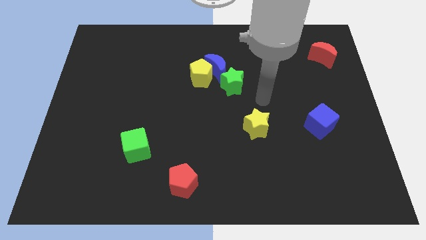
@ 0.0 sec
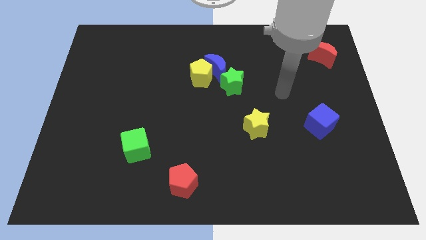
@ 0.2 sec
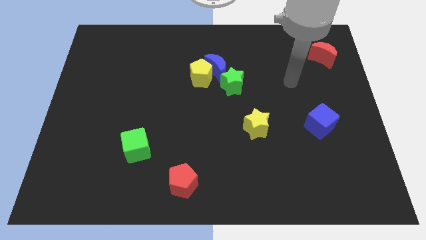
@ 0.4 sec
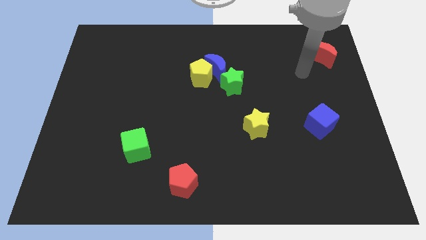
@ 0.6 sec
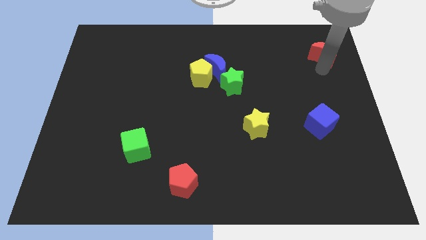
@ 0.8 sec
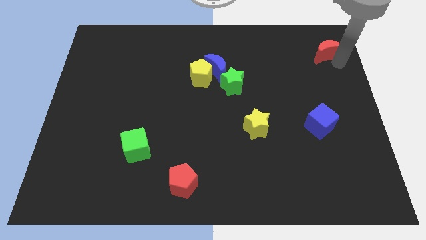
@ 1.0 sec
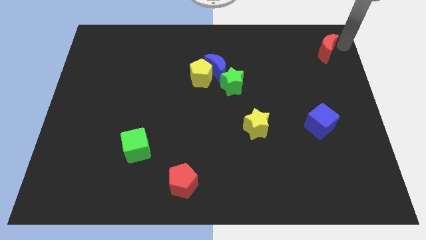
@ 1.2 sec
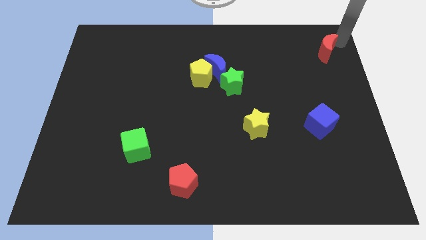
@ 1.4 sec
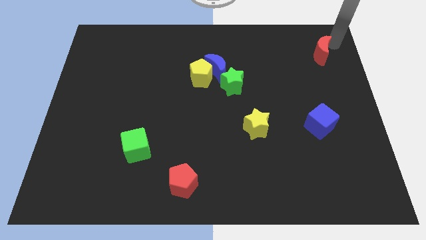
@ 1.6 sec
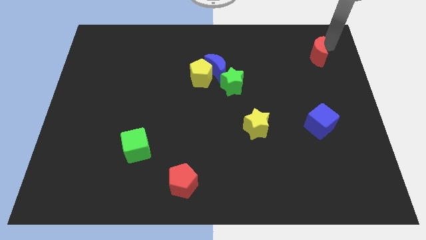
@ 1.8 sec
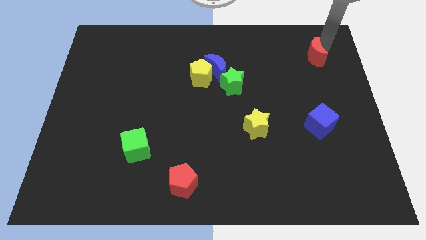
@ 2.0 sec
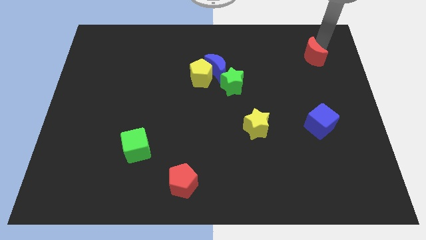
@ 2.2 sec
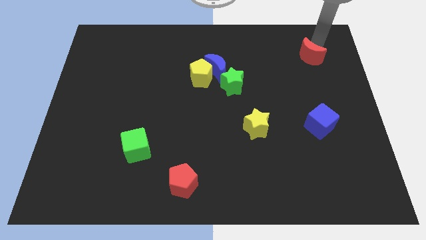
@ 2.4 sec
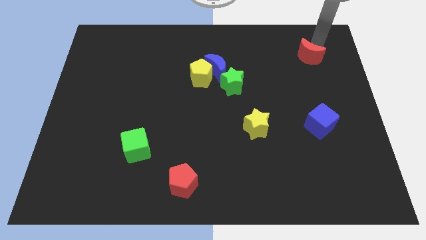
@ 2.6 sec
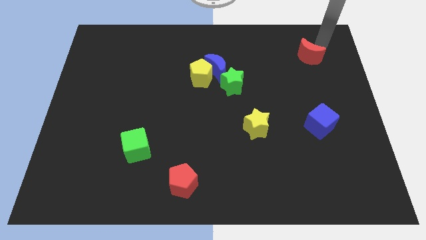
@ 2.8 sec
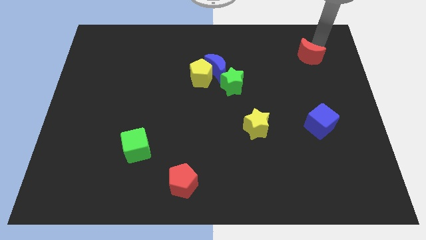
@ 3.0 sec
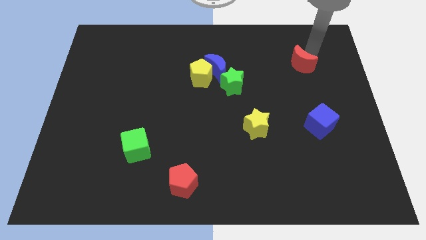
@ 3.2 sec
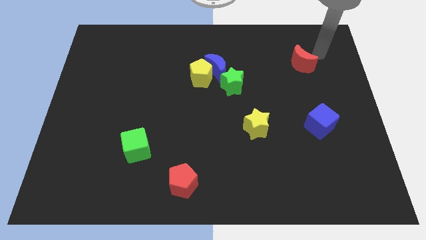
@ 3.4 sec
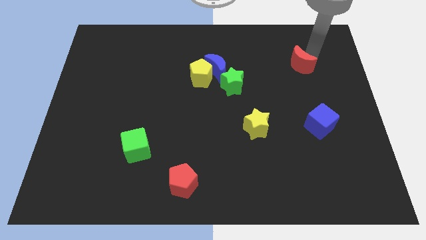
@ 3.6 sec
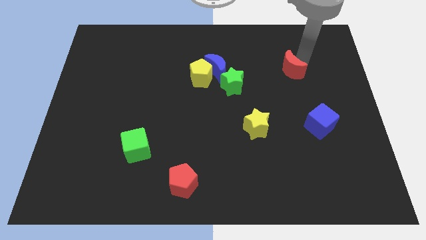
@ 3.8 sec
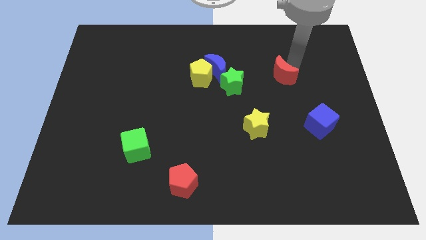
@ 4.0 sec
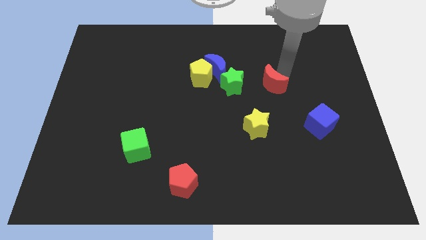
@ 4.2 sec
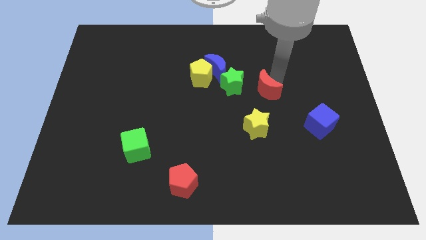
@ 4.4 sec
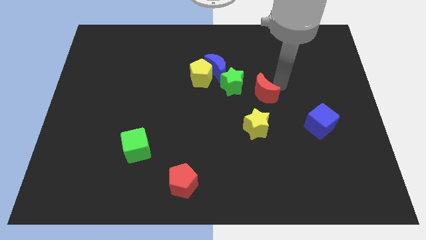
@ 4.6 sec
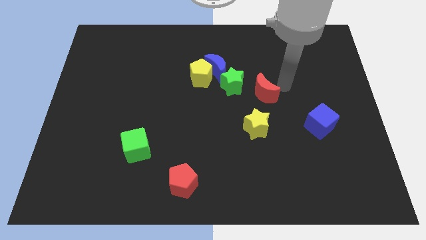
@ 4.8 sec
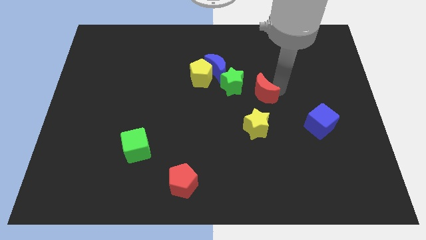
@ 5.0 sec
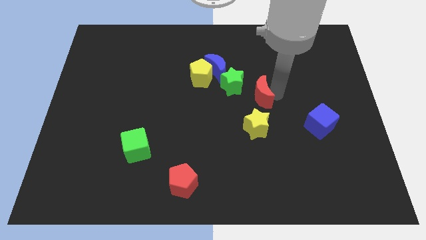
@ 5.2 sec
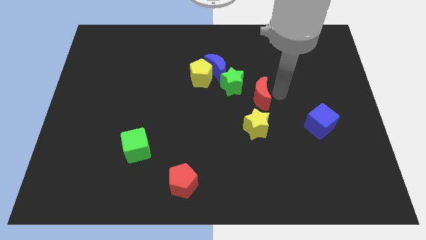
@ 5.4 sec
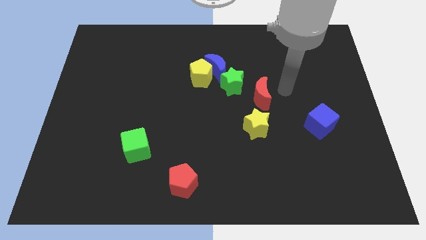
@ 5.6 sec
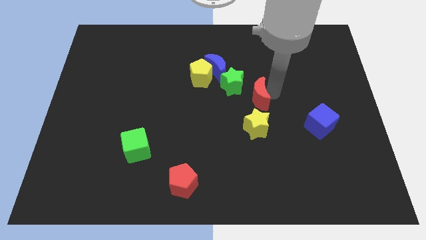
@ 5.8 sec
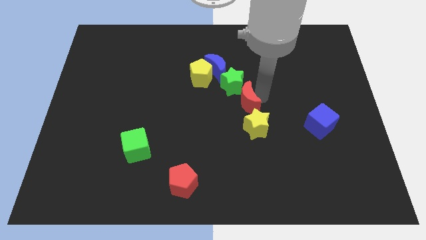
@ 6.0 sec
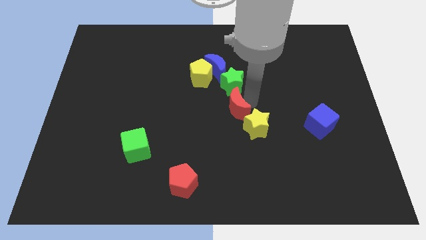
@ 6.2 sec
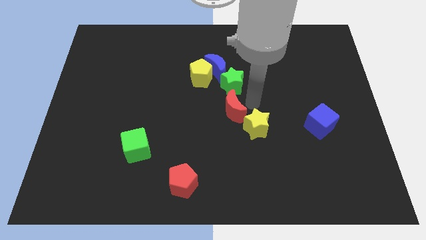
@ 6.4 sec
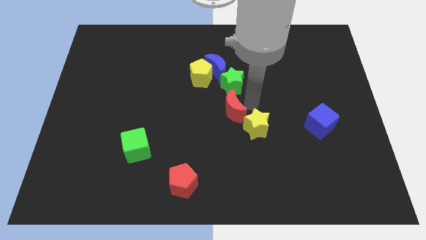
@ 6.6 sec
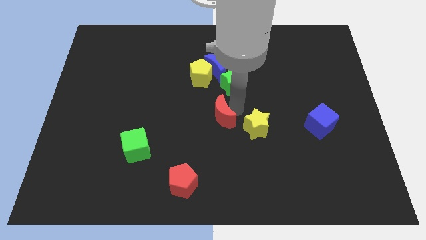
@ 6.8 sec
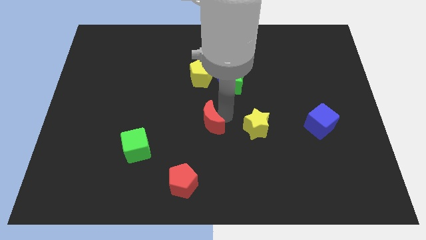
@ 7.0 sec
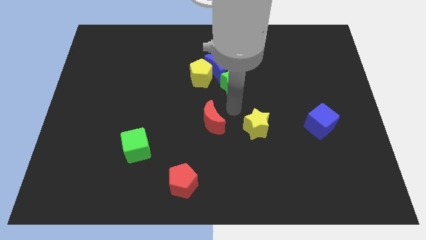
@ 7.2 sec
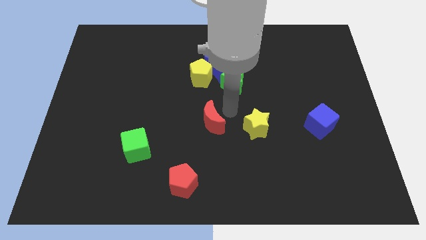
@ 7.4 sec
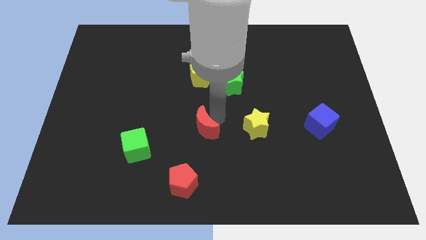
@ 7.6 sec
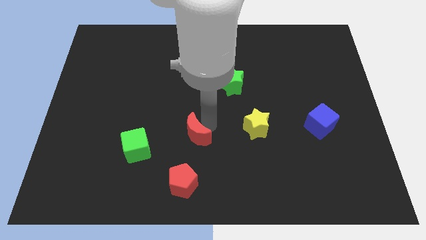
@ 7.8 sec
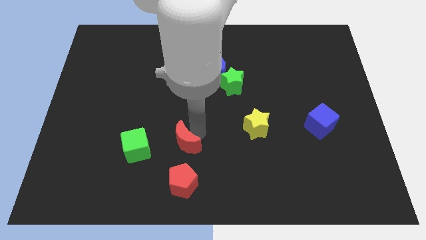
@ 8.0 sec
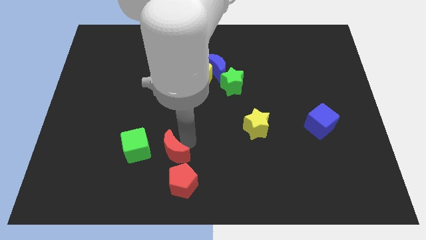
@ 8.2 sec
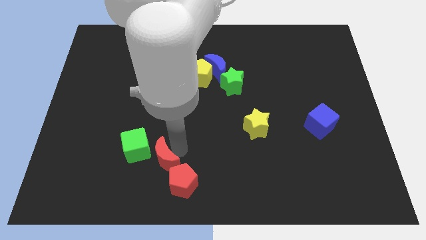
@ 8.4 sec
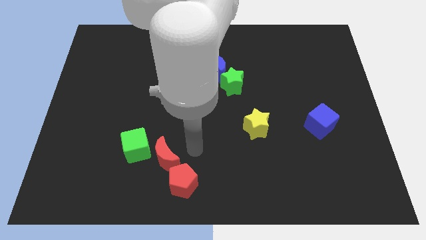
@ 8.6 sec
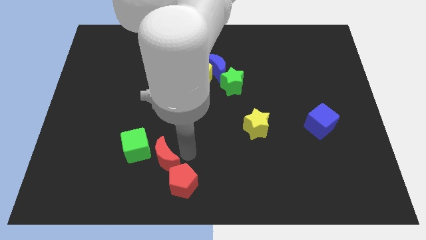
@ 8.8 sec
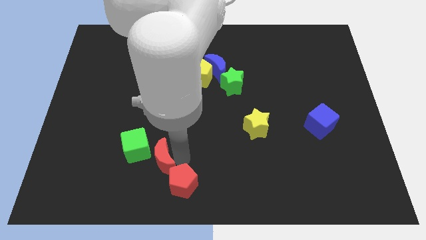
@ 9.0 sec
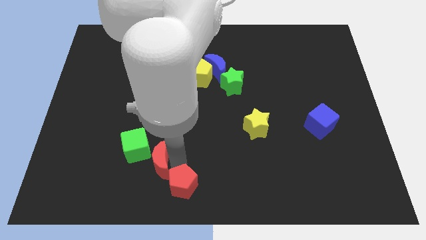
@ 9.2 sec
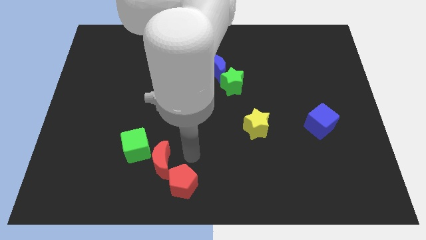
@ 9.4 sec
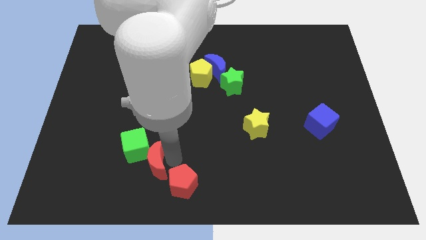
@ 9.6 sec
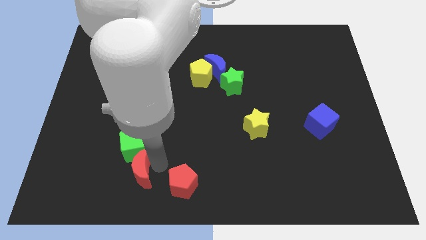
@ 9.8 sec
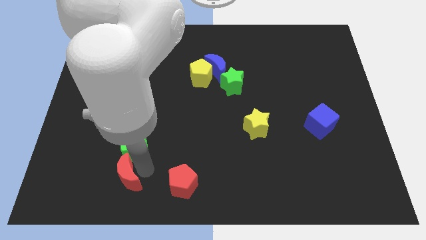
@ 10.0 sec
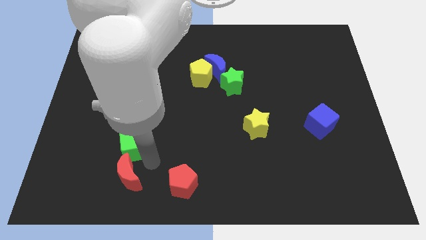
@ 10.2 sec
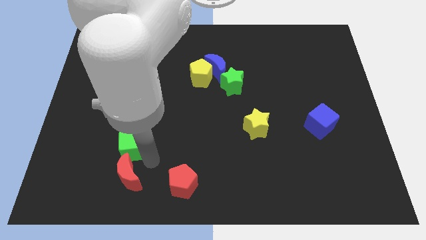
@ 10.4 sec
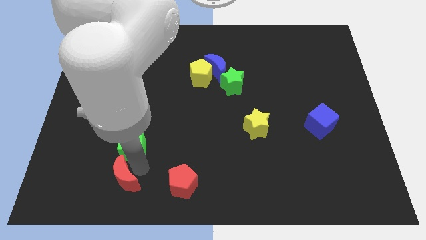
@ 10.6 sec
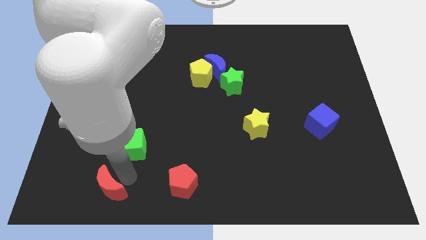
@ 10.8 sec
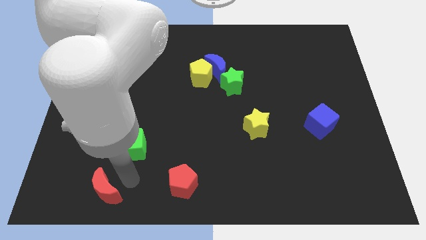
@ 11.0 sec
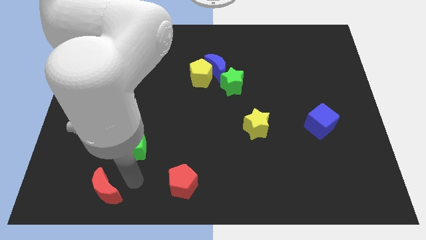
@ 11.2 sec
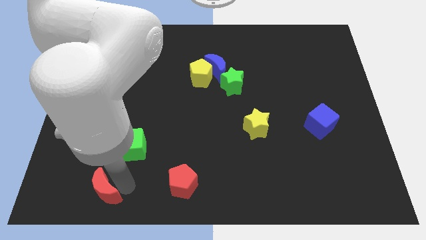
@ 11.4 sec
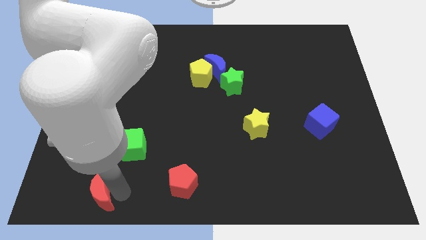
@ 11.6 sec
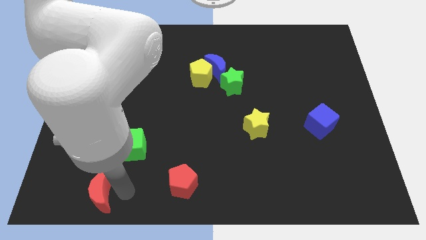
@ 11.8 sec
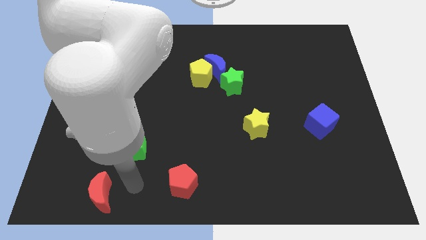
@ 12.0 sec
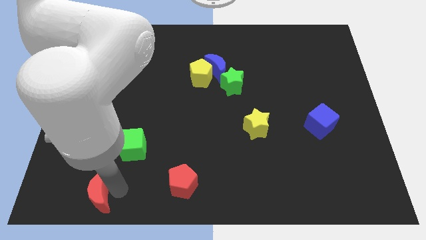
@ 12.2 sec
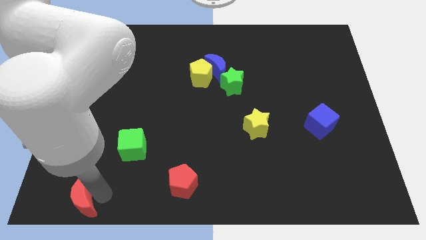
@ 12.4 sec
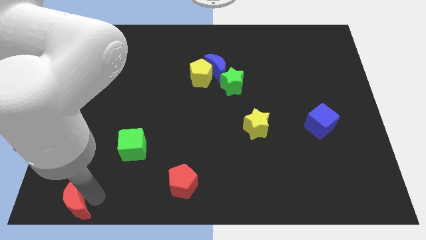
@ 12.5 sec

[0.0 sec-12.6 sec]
push the red moon to the lower left corner

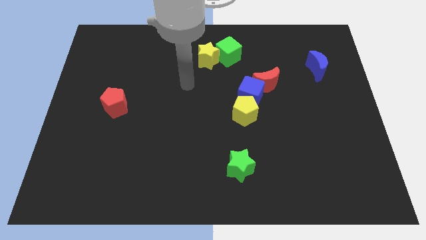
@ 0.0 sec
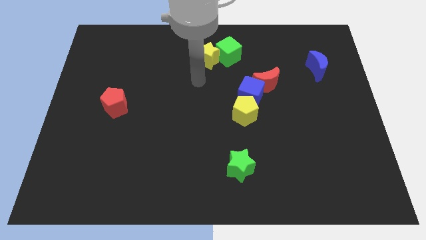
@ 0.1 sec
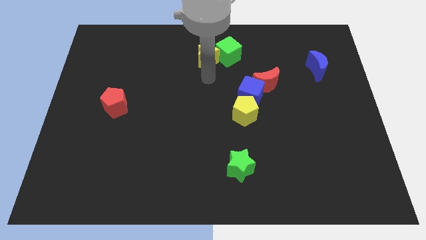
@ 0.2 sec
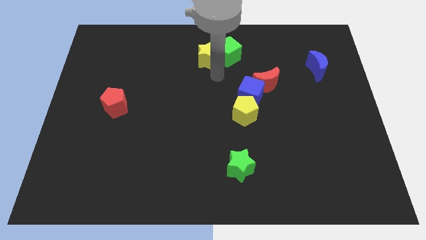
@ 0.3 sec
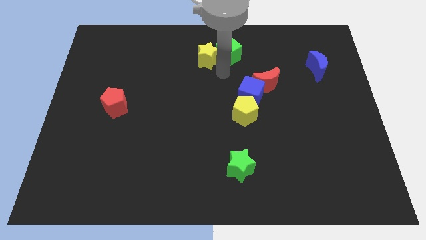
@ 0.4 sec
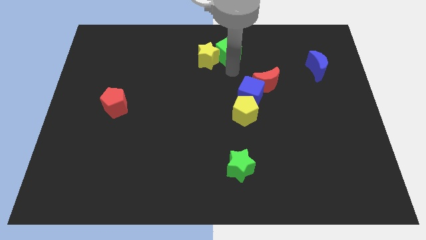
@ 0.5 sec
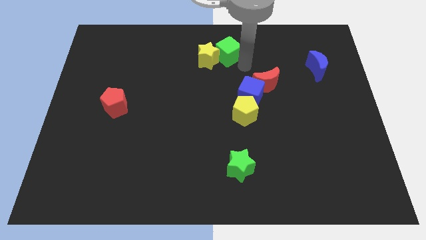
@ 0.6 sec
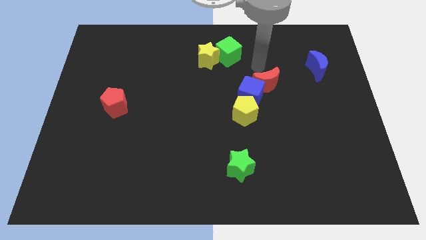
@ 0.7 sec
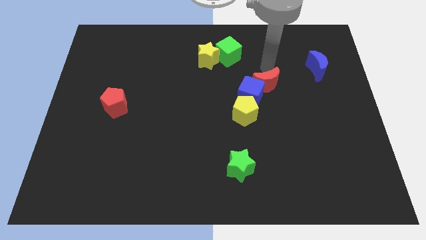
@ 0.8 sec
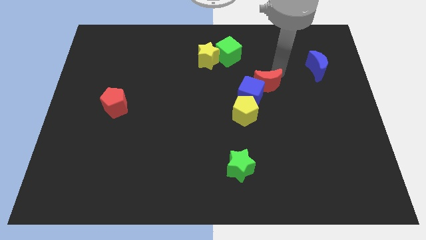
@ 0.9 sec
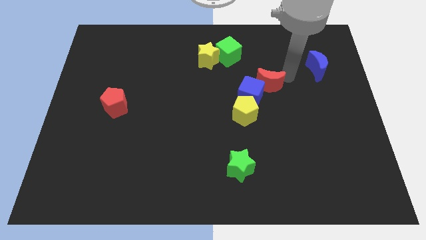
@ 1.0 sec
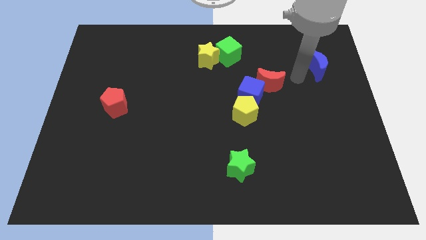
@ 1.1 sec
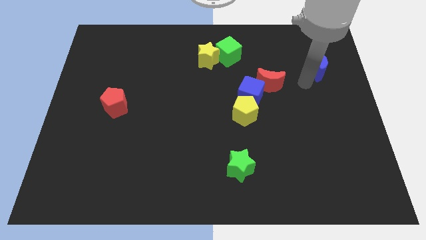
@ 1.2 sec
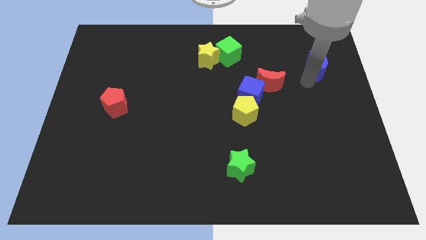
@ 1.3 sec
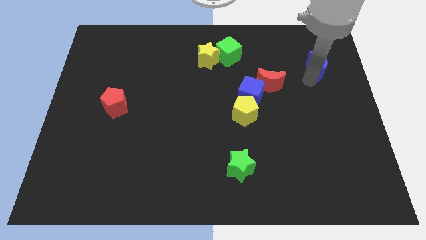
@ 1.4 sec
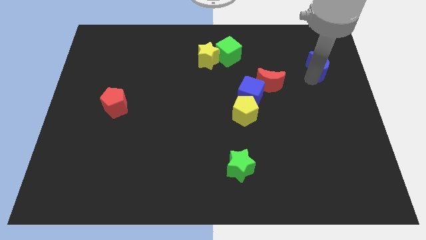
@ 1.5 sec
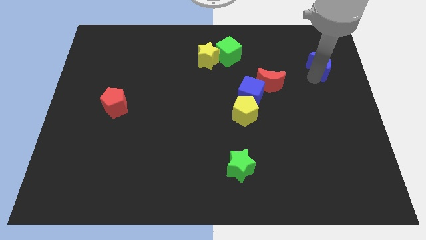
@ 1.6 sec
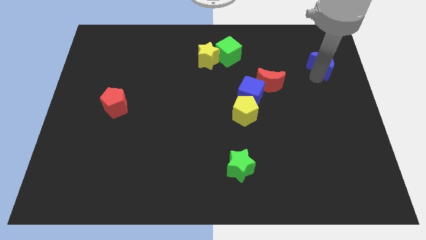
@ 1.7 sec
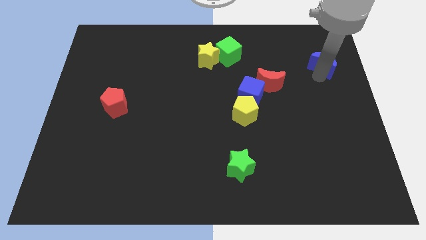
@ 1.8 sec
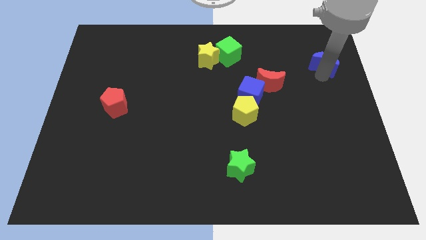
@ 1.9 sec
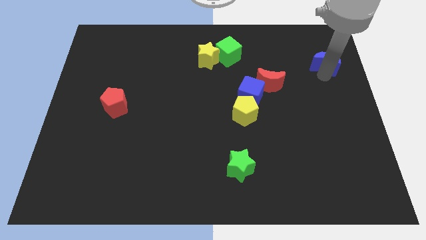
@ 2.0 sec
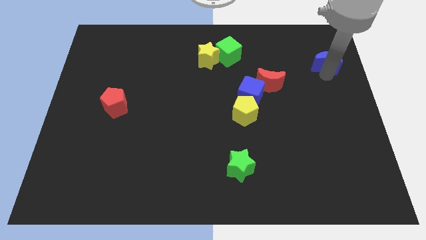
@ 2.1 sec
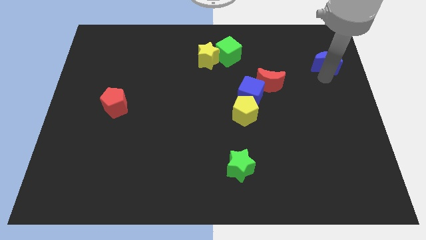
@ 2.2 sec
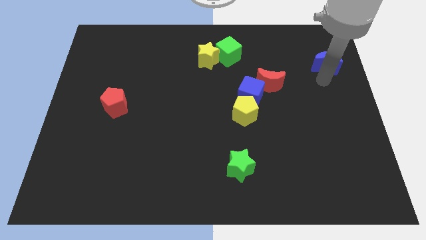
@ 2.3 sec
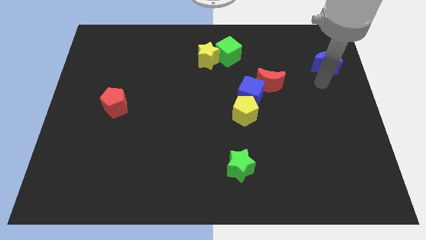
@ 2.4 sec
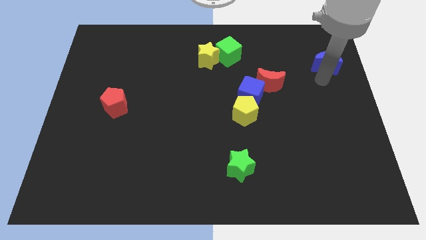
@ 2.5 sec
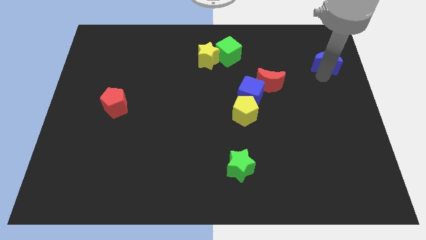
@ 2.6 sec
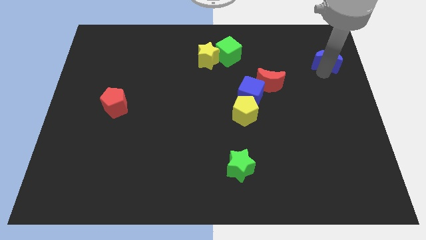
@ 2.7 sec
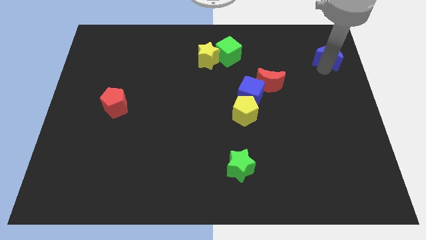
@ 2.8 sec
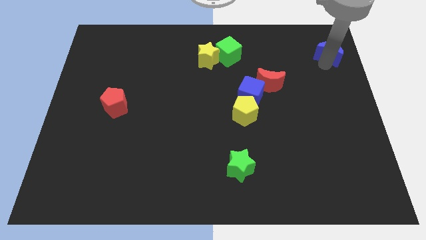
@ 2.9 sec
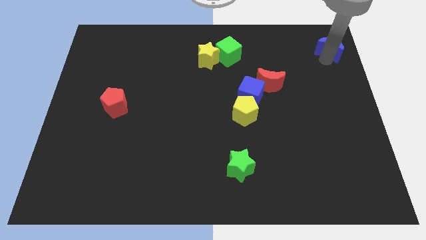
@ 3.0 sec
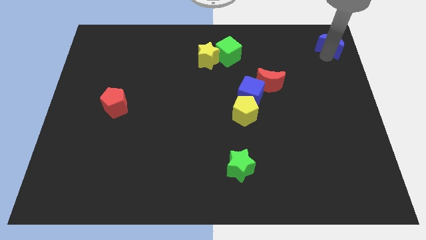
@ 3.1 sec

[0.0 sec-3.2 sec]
move the blue moon to the upper right corner
